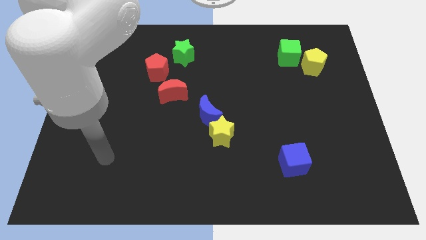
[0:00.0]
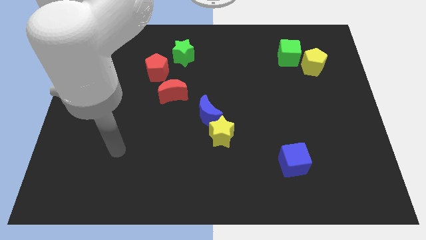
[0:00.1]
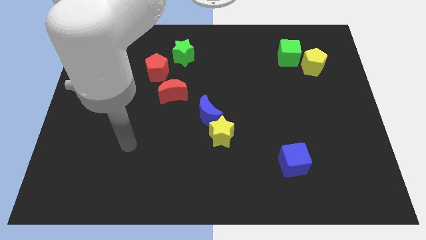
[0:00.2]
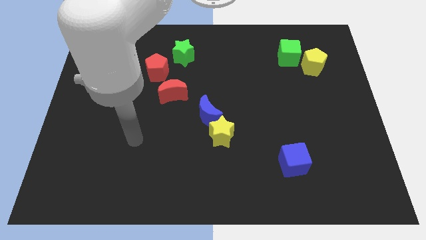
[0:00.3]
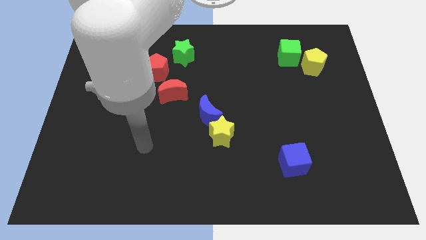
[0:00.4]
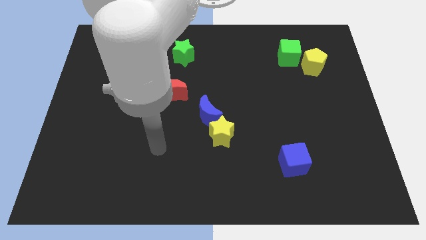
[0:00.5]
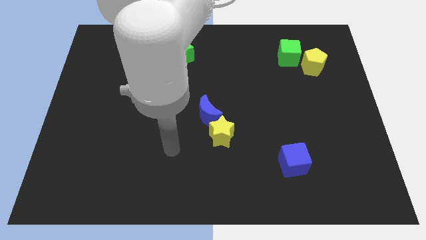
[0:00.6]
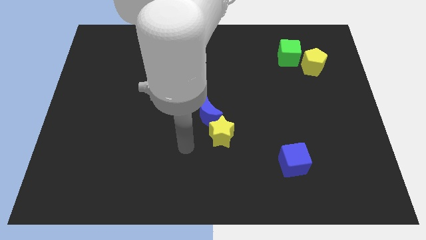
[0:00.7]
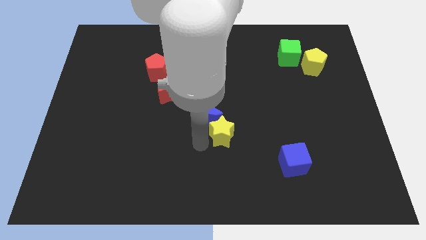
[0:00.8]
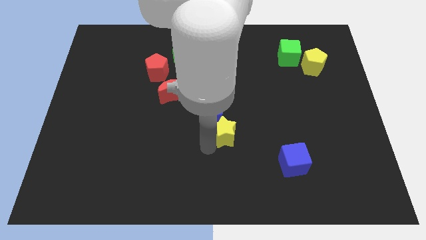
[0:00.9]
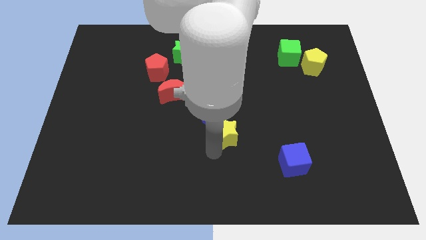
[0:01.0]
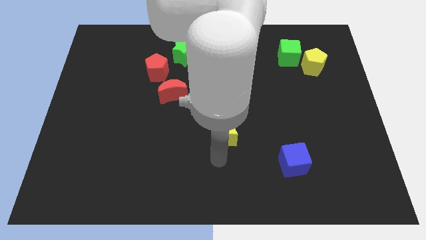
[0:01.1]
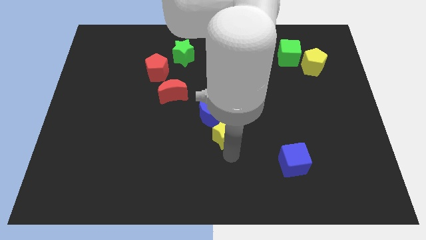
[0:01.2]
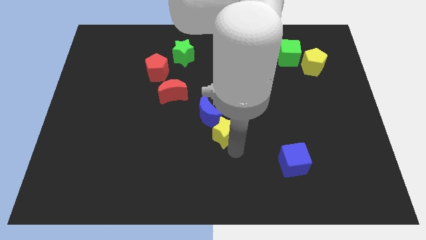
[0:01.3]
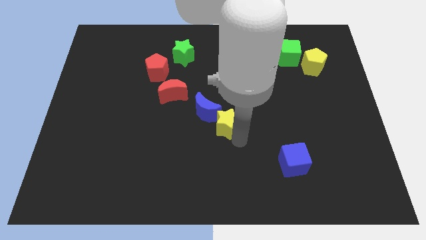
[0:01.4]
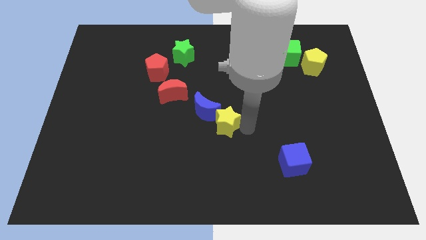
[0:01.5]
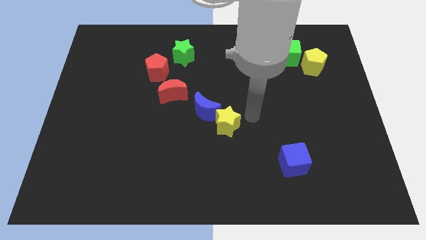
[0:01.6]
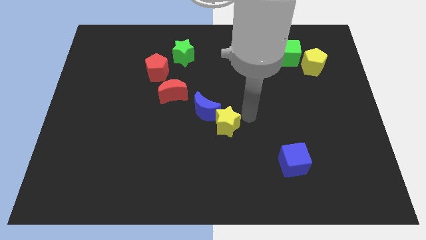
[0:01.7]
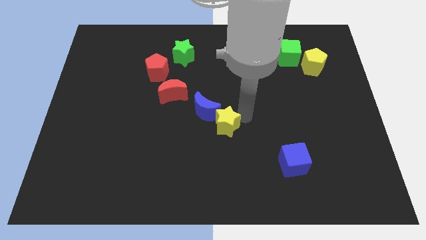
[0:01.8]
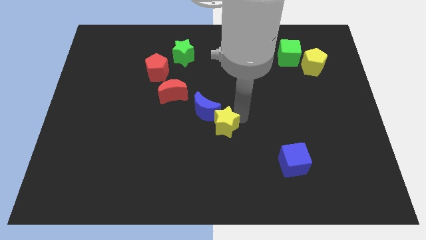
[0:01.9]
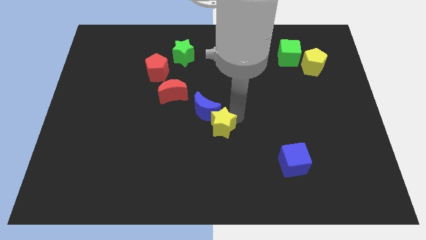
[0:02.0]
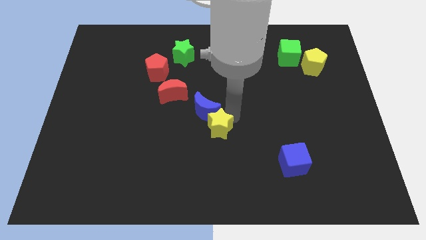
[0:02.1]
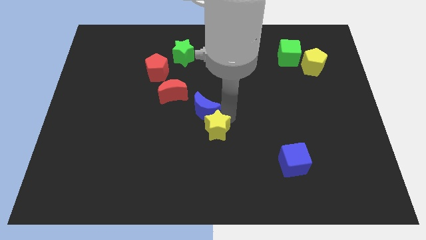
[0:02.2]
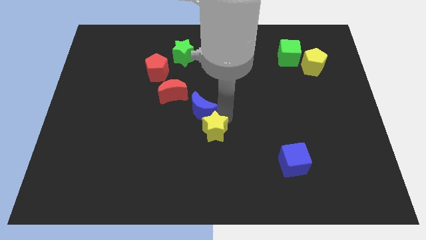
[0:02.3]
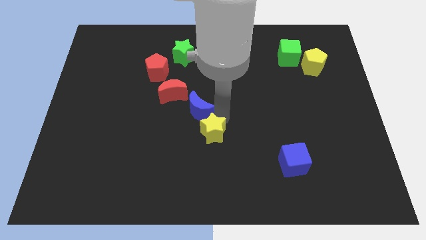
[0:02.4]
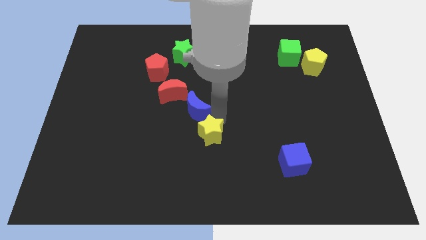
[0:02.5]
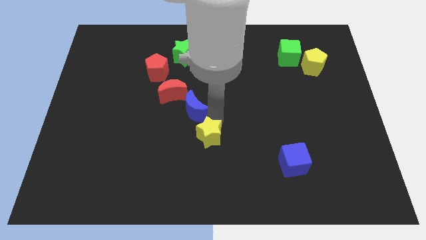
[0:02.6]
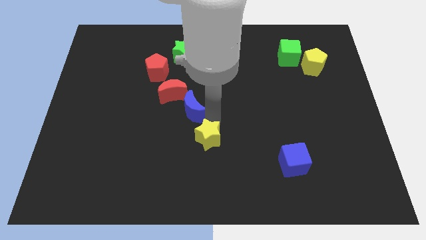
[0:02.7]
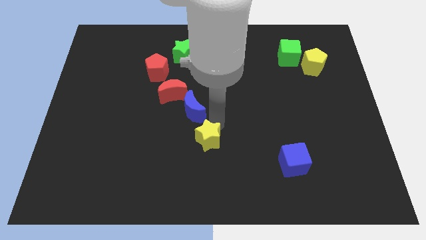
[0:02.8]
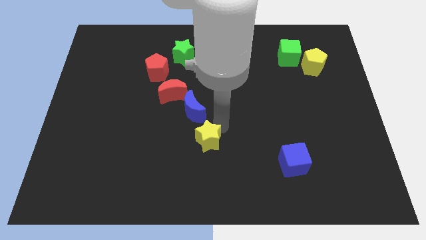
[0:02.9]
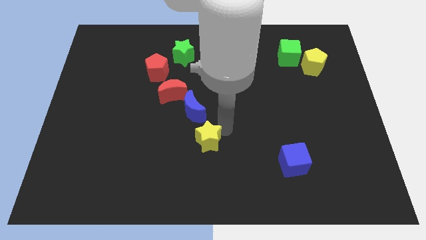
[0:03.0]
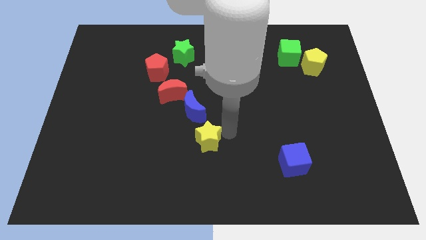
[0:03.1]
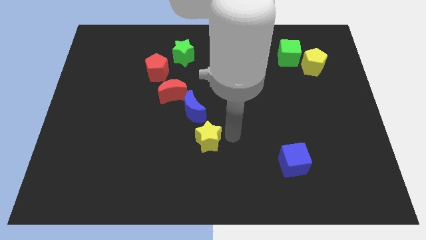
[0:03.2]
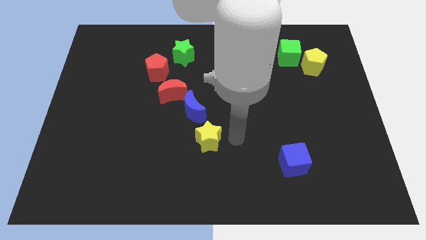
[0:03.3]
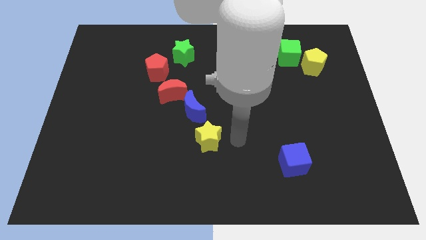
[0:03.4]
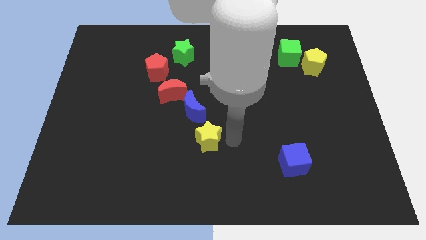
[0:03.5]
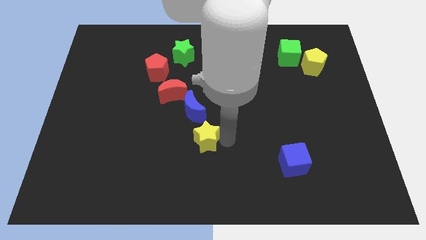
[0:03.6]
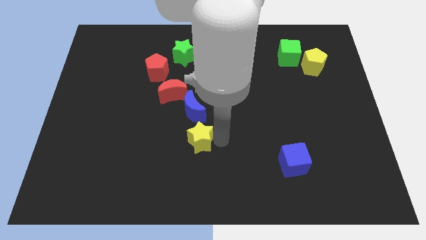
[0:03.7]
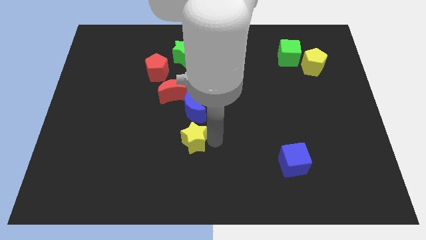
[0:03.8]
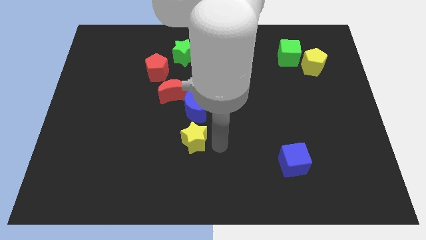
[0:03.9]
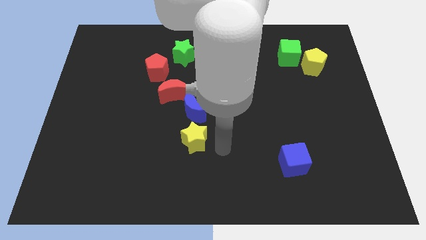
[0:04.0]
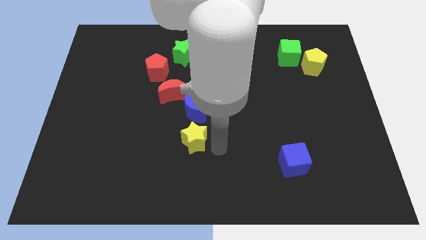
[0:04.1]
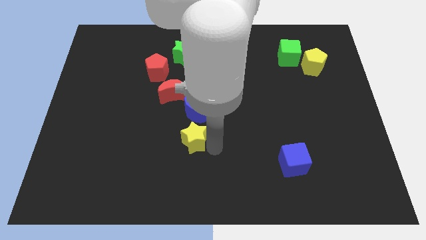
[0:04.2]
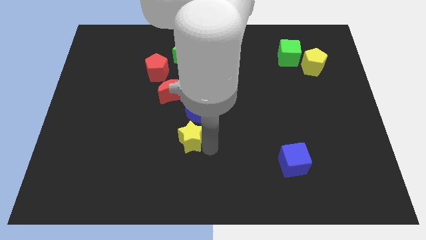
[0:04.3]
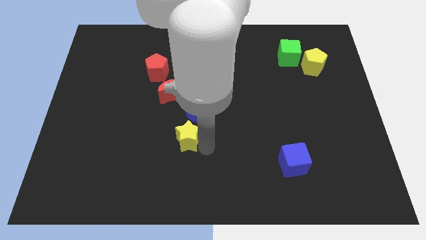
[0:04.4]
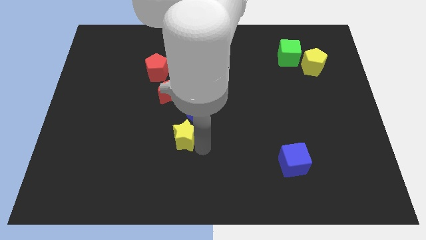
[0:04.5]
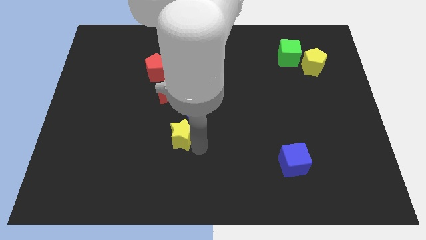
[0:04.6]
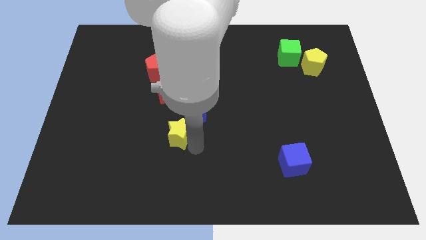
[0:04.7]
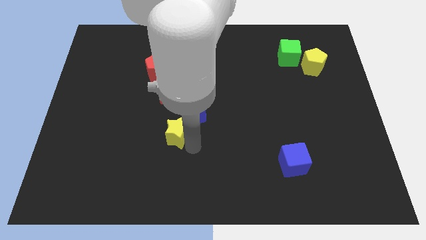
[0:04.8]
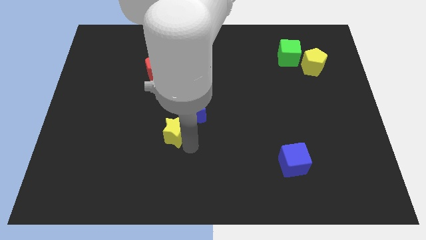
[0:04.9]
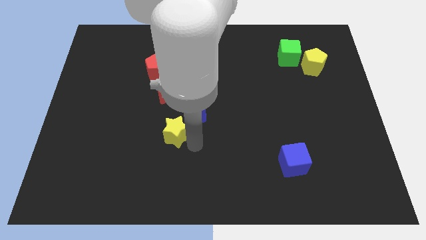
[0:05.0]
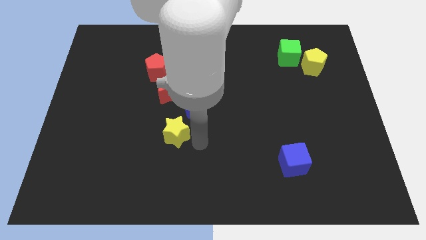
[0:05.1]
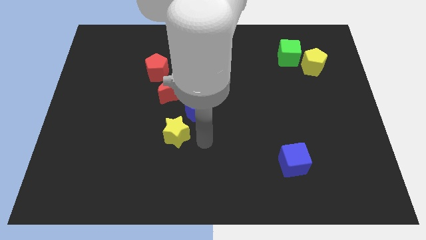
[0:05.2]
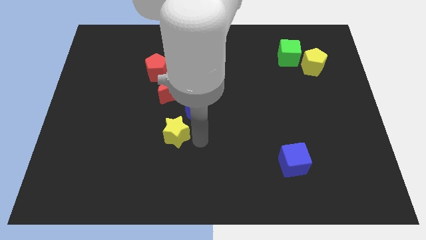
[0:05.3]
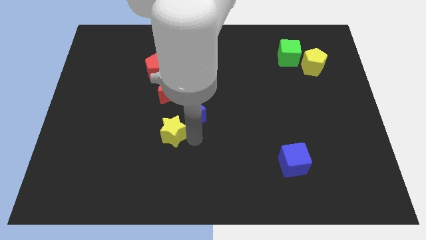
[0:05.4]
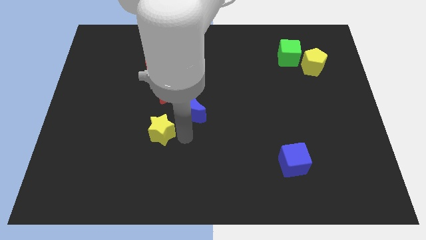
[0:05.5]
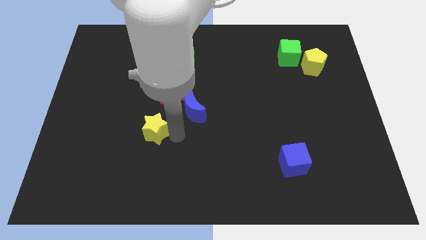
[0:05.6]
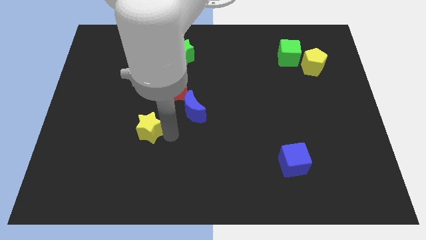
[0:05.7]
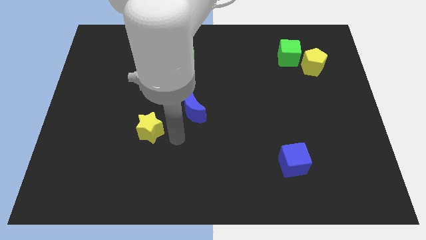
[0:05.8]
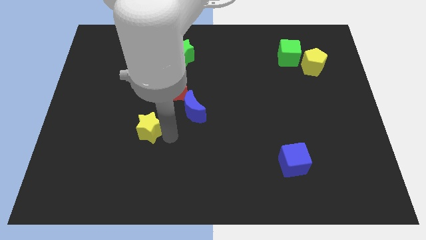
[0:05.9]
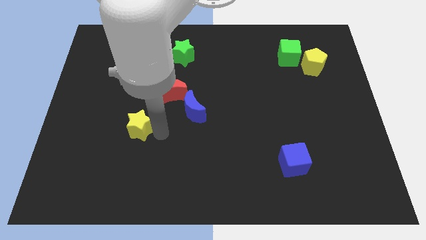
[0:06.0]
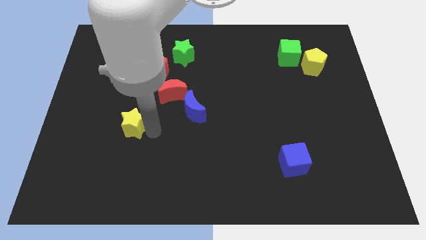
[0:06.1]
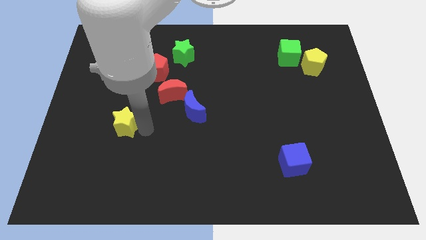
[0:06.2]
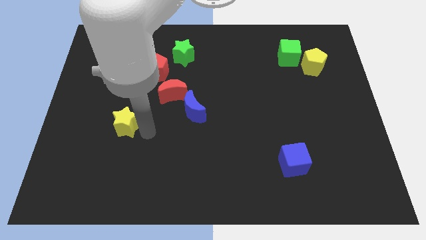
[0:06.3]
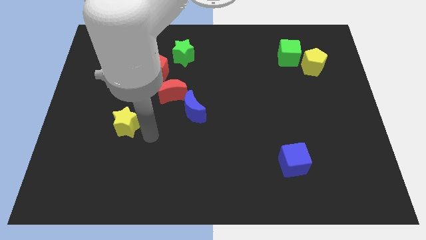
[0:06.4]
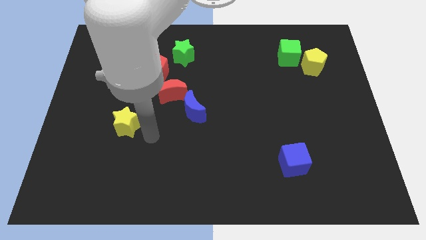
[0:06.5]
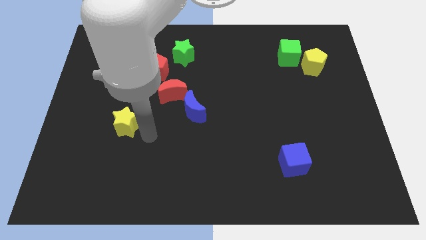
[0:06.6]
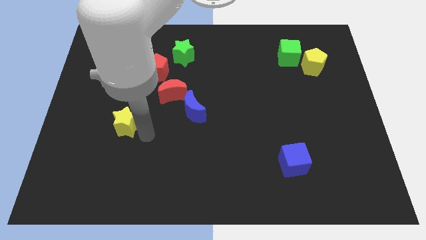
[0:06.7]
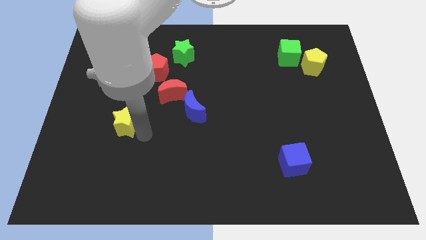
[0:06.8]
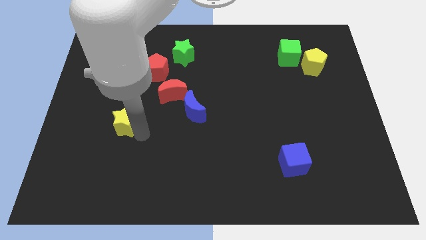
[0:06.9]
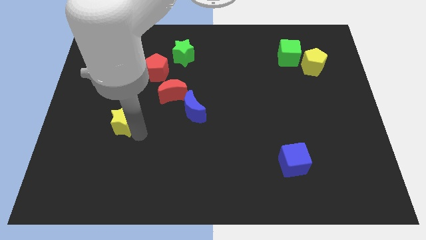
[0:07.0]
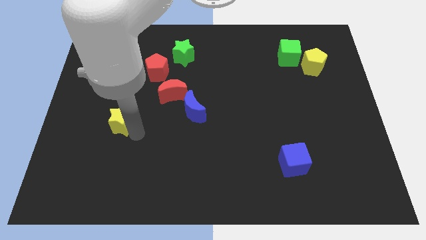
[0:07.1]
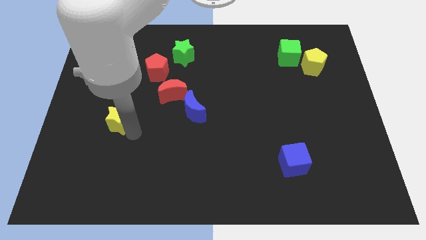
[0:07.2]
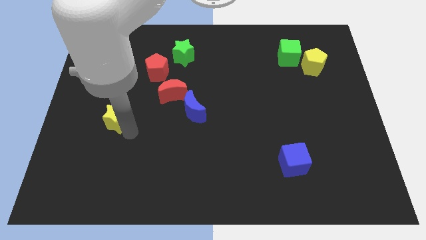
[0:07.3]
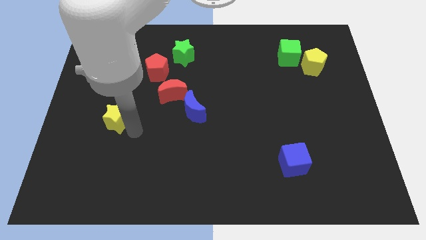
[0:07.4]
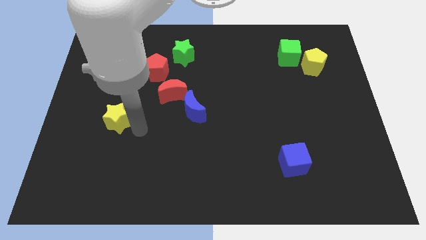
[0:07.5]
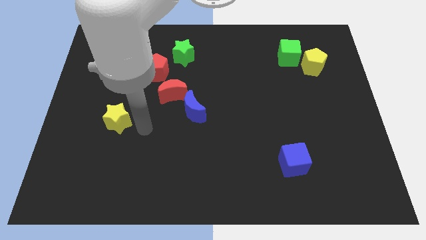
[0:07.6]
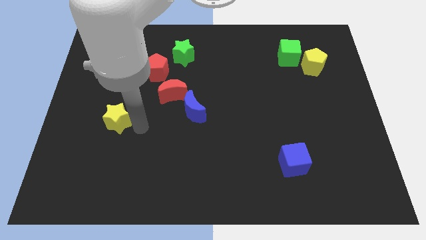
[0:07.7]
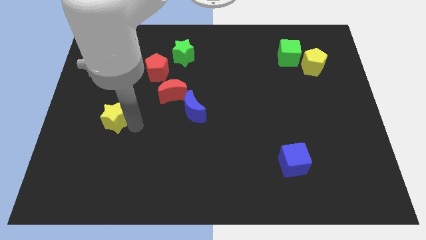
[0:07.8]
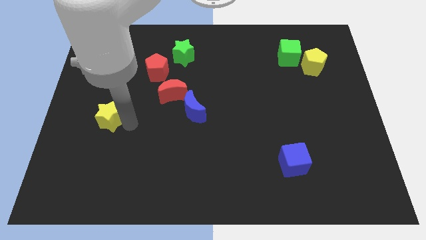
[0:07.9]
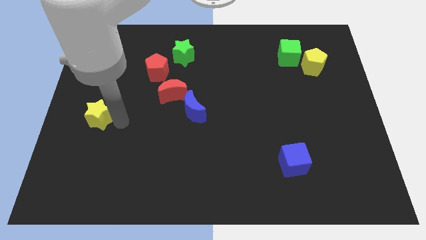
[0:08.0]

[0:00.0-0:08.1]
slide the yellow star to the left side of the board
